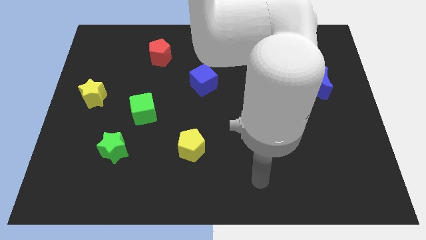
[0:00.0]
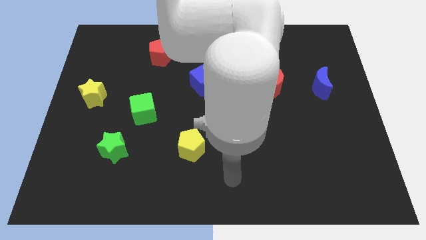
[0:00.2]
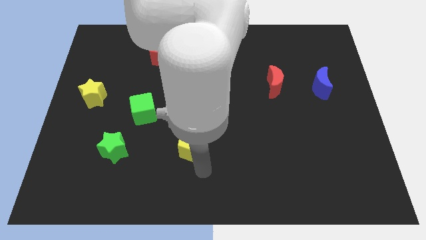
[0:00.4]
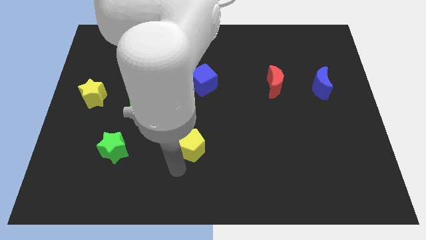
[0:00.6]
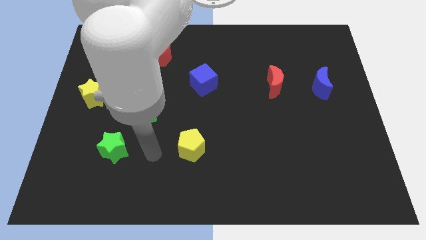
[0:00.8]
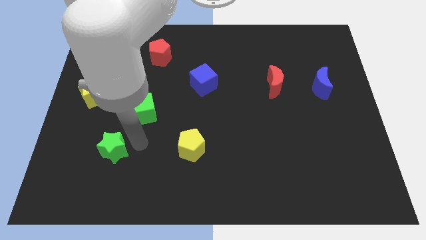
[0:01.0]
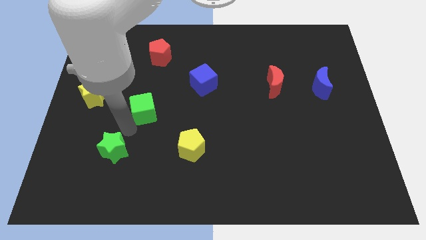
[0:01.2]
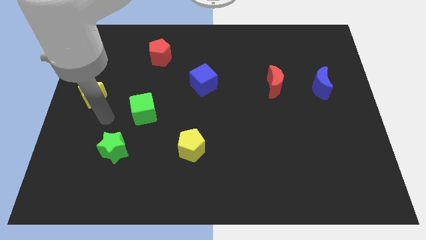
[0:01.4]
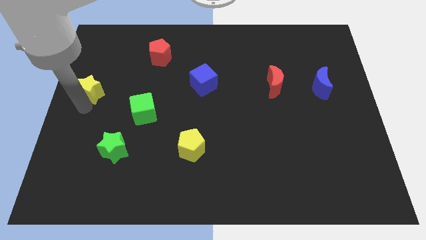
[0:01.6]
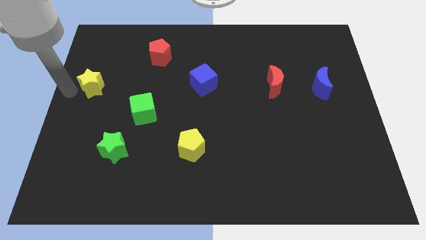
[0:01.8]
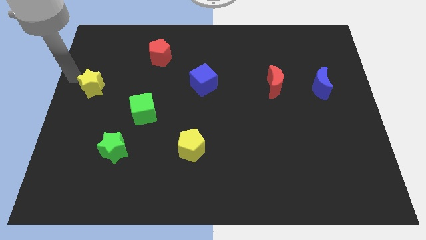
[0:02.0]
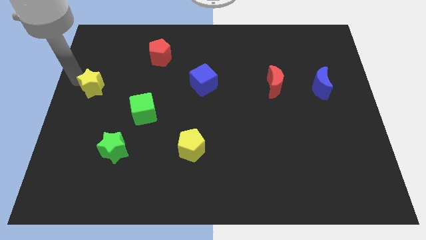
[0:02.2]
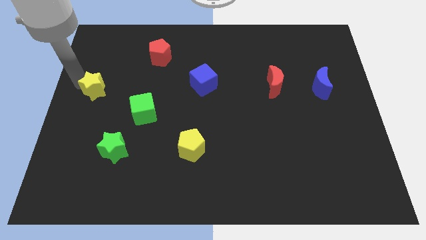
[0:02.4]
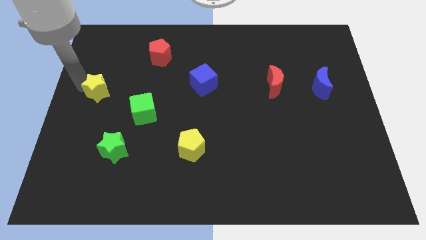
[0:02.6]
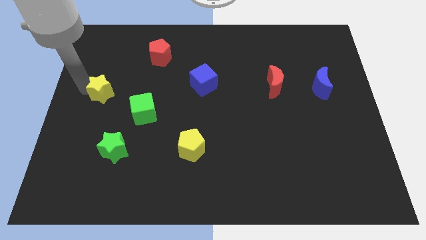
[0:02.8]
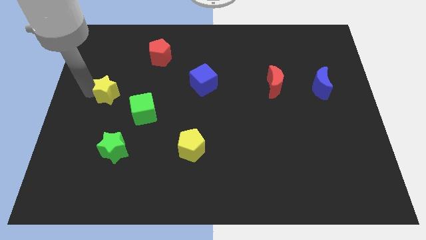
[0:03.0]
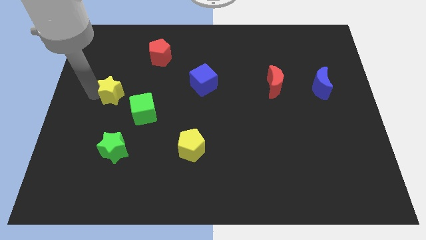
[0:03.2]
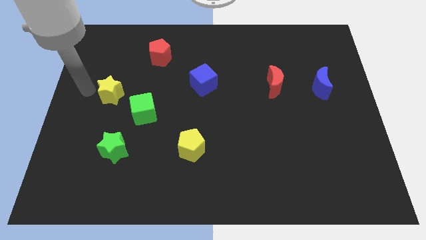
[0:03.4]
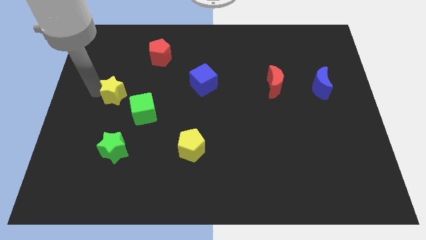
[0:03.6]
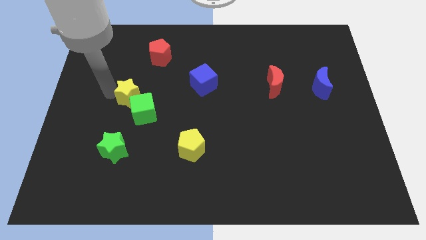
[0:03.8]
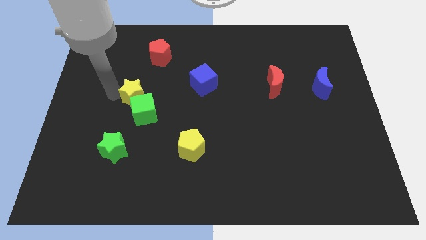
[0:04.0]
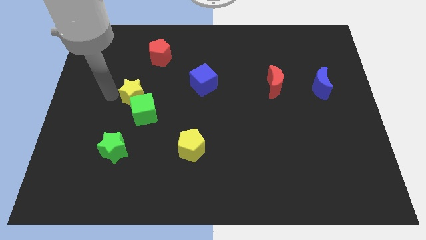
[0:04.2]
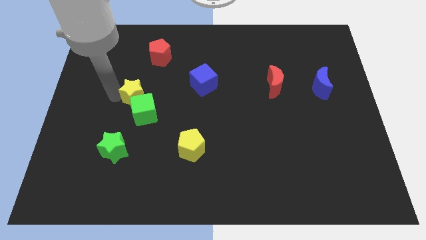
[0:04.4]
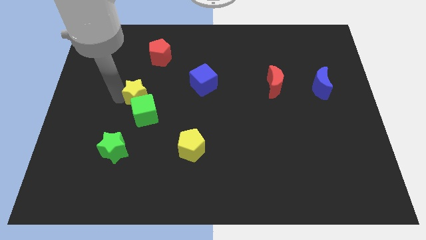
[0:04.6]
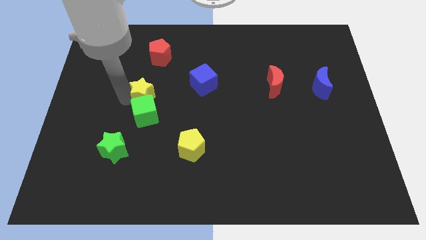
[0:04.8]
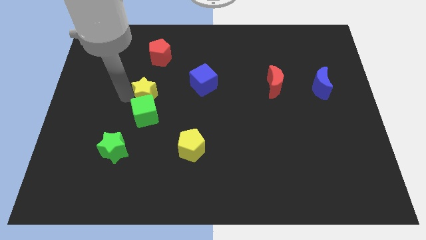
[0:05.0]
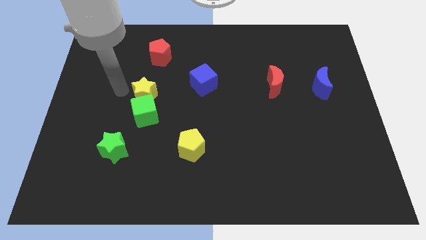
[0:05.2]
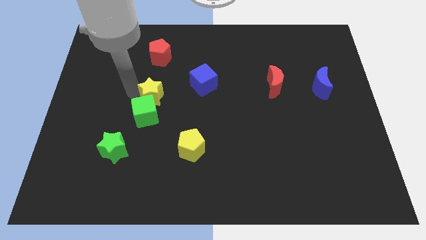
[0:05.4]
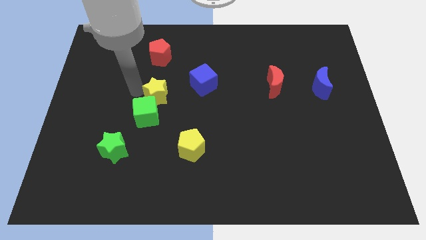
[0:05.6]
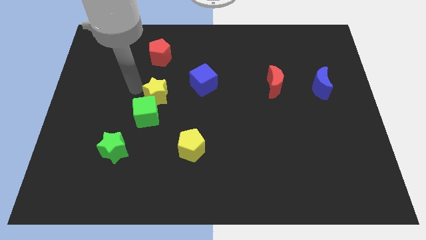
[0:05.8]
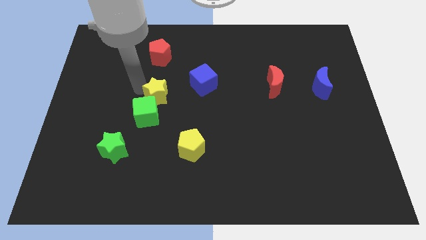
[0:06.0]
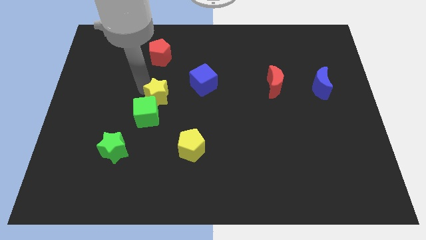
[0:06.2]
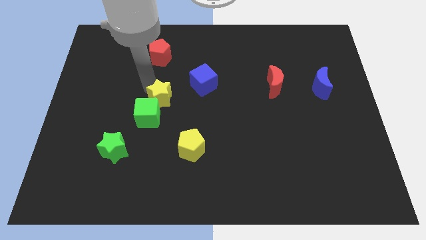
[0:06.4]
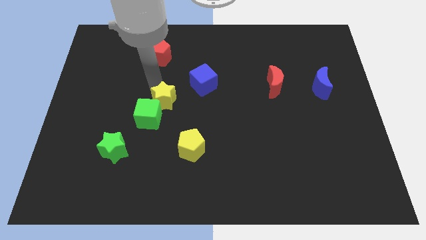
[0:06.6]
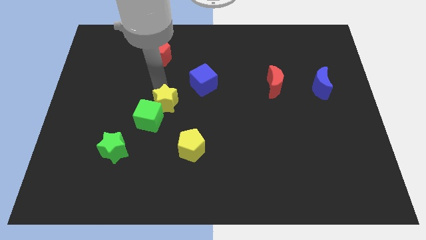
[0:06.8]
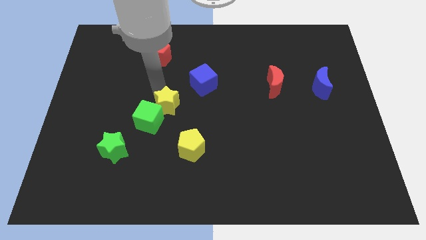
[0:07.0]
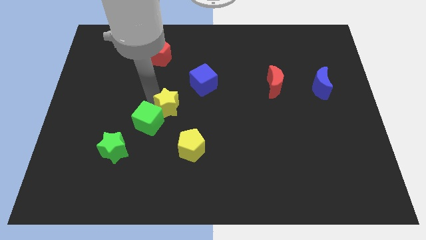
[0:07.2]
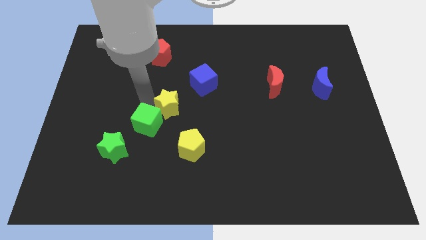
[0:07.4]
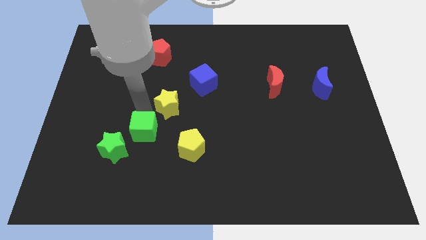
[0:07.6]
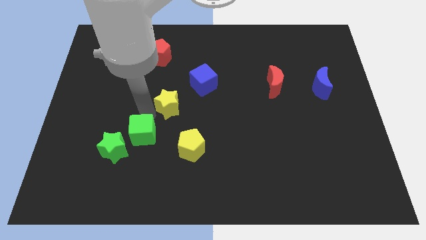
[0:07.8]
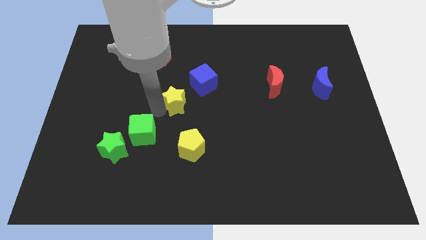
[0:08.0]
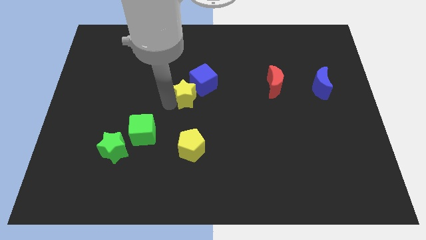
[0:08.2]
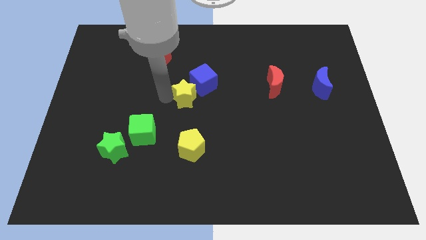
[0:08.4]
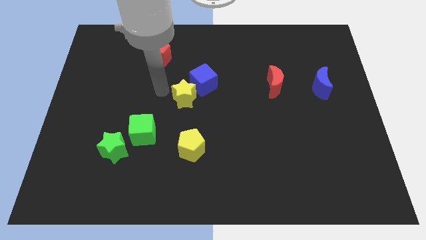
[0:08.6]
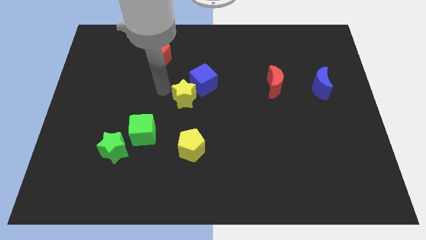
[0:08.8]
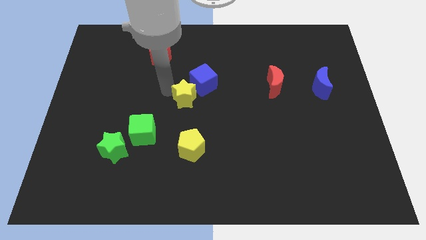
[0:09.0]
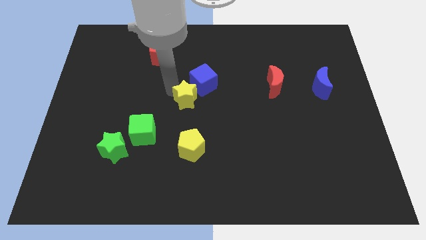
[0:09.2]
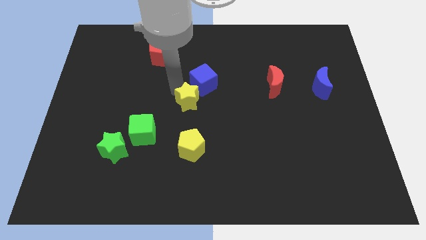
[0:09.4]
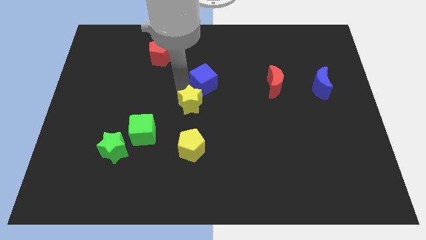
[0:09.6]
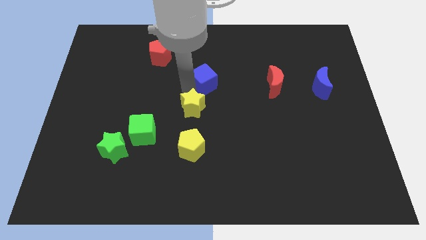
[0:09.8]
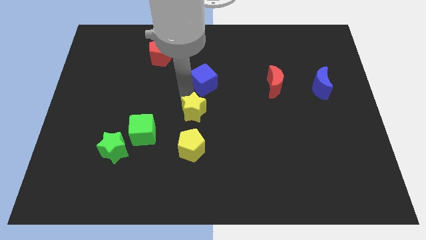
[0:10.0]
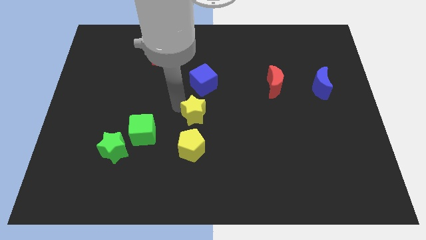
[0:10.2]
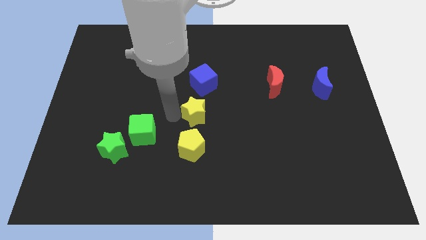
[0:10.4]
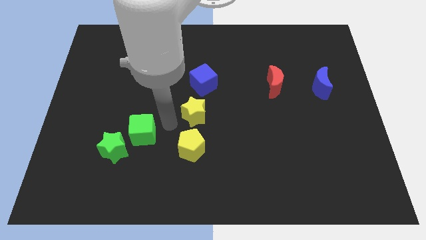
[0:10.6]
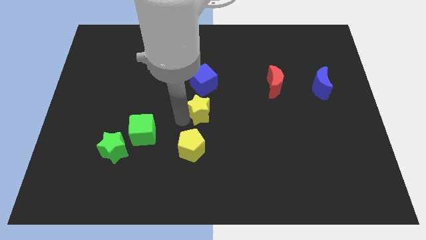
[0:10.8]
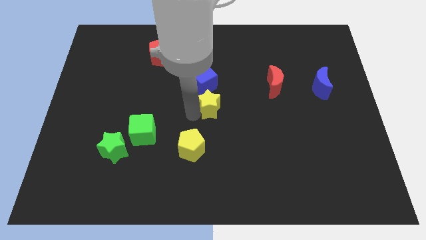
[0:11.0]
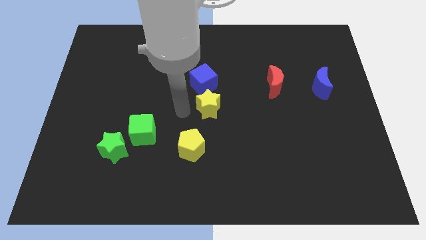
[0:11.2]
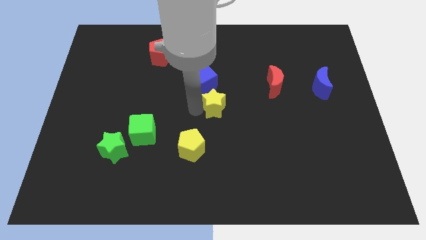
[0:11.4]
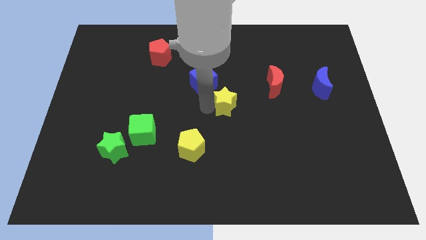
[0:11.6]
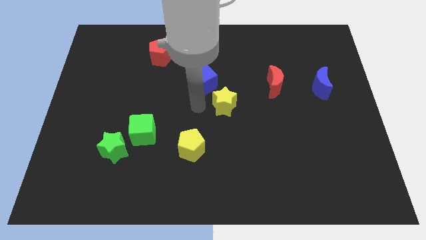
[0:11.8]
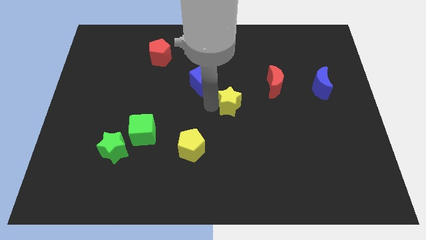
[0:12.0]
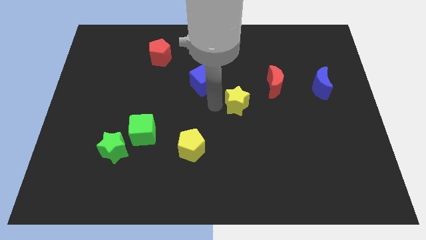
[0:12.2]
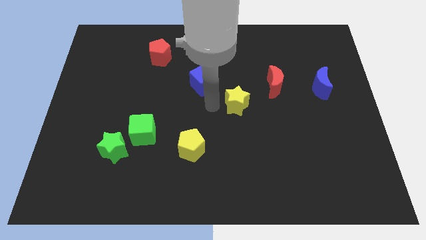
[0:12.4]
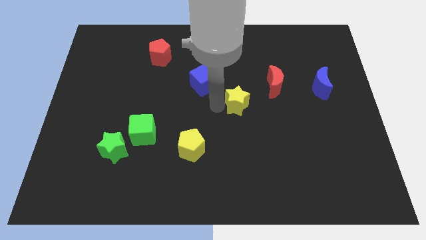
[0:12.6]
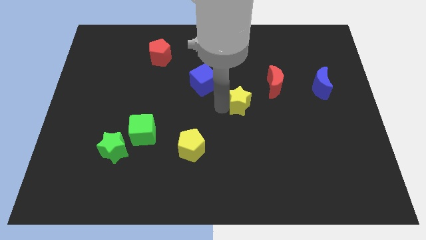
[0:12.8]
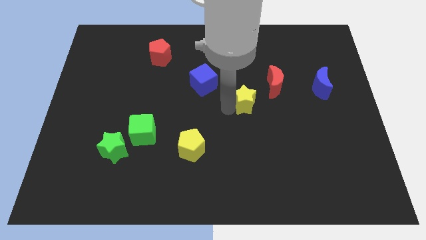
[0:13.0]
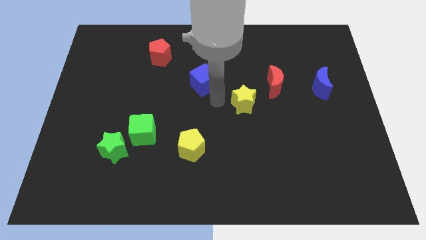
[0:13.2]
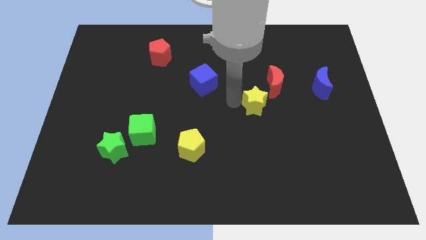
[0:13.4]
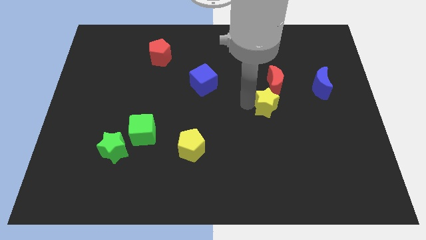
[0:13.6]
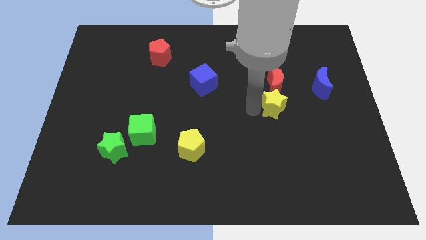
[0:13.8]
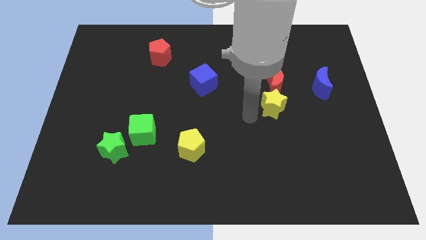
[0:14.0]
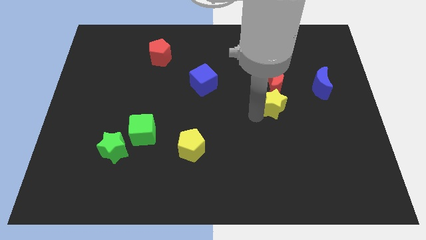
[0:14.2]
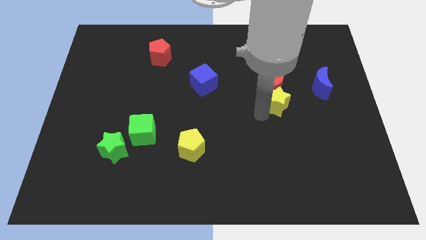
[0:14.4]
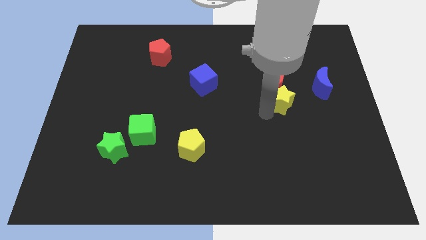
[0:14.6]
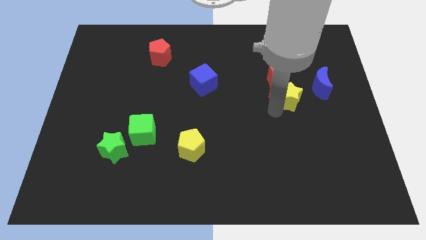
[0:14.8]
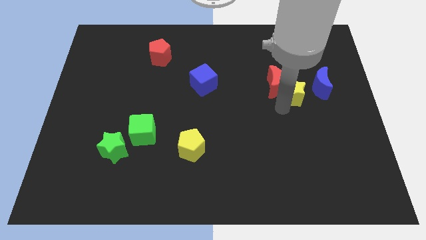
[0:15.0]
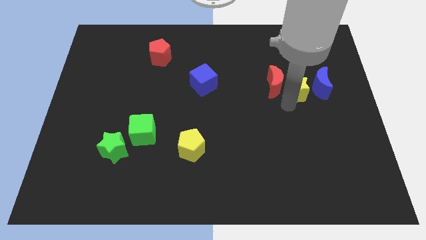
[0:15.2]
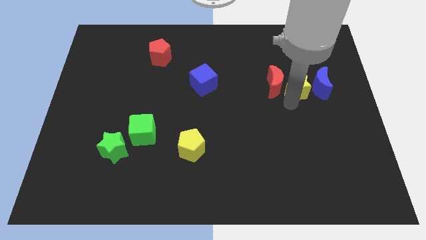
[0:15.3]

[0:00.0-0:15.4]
put the yellow star next to the blue moon
